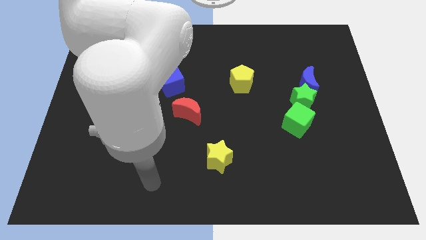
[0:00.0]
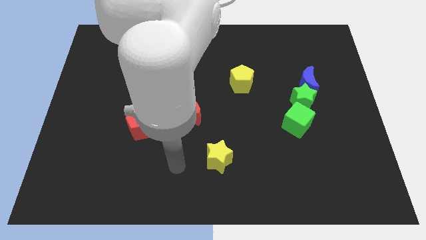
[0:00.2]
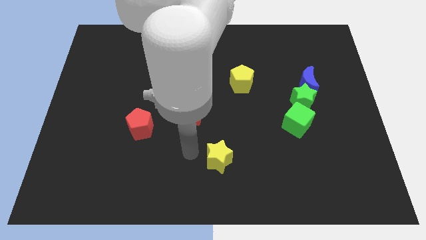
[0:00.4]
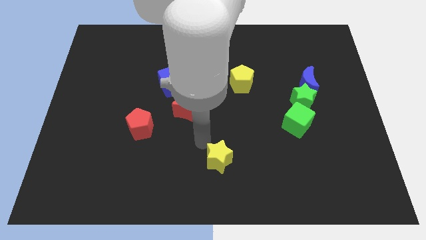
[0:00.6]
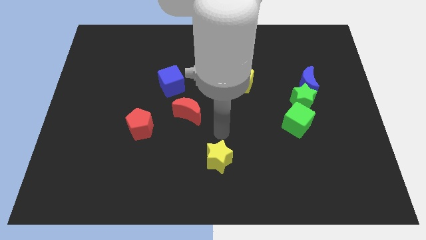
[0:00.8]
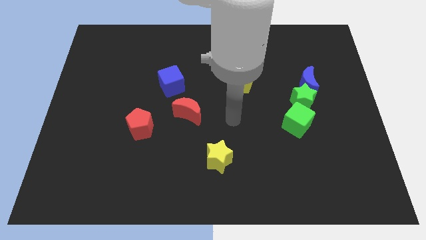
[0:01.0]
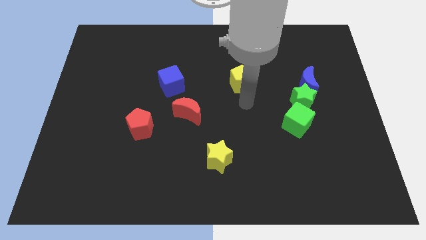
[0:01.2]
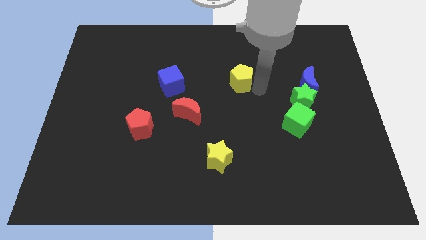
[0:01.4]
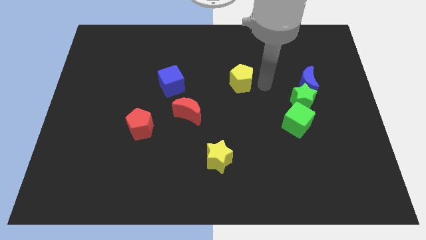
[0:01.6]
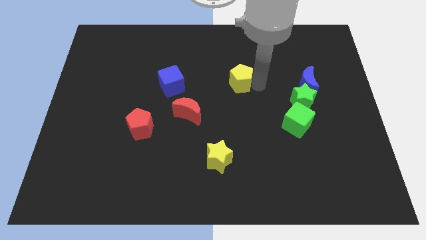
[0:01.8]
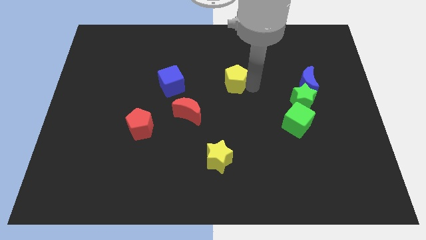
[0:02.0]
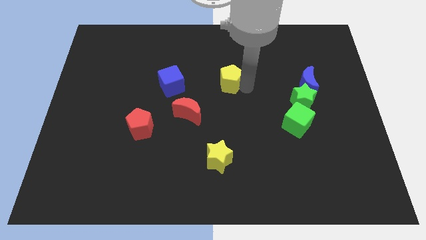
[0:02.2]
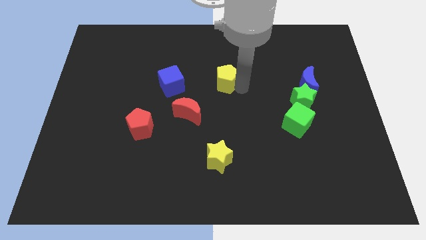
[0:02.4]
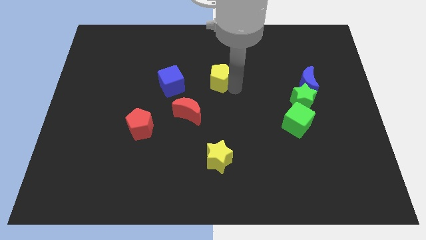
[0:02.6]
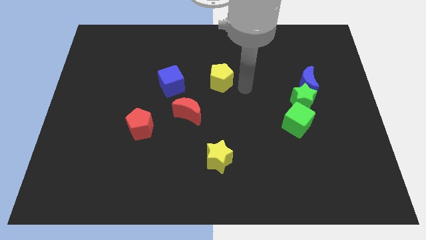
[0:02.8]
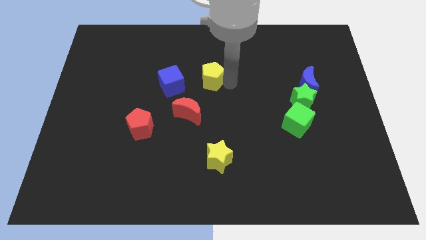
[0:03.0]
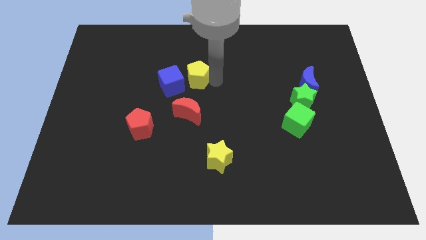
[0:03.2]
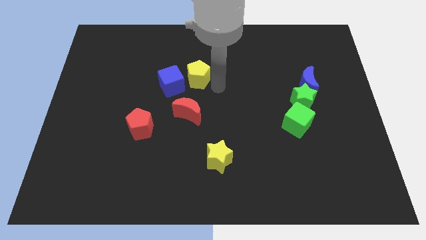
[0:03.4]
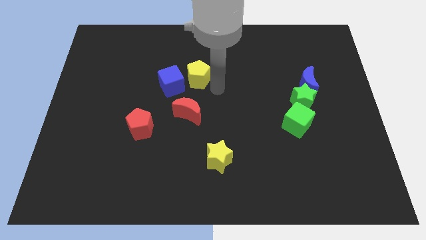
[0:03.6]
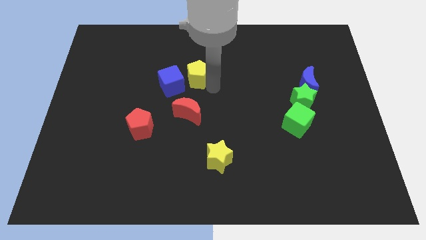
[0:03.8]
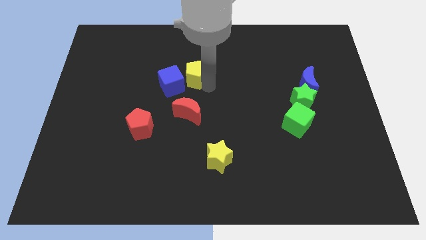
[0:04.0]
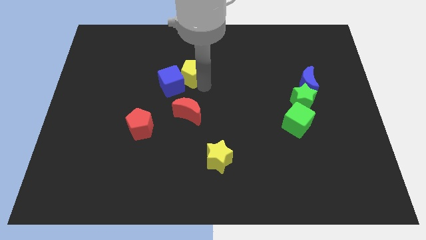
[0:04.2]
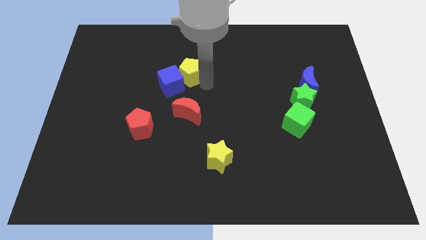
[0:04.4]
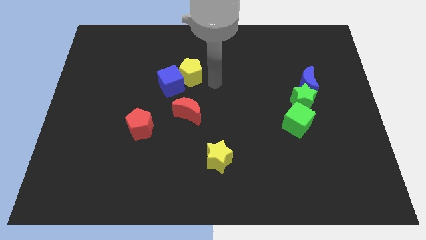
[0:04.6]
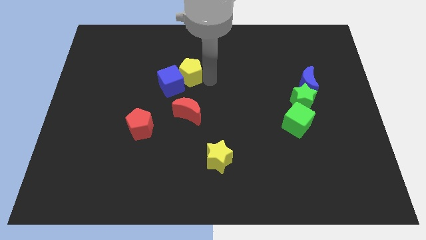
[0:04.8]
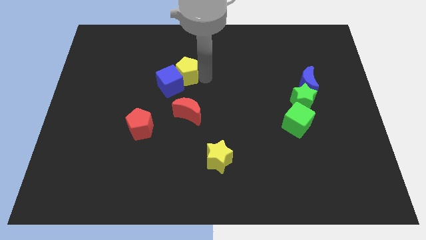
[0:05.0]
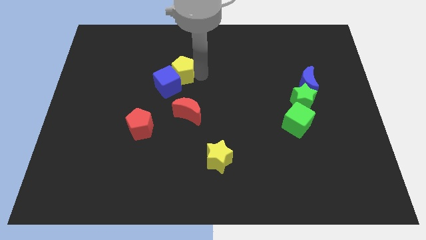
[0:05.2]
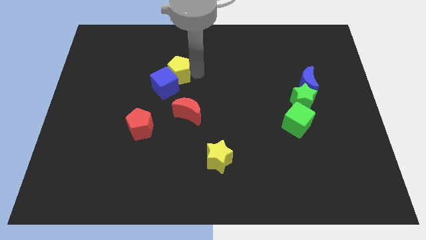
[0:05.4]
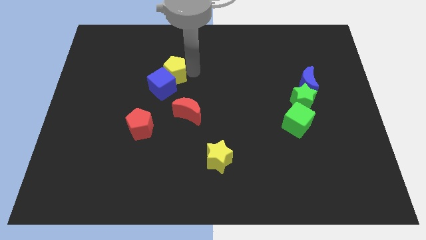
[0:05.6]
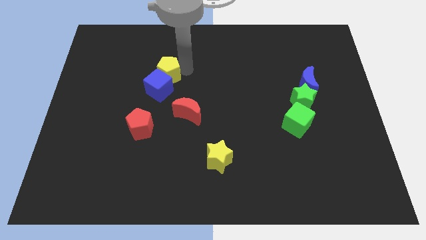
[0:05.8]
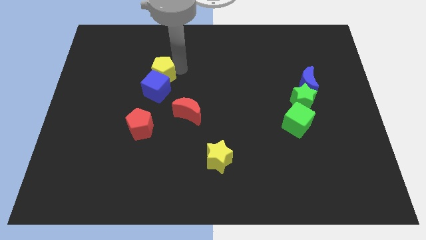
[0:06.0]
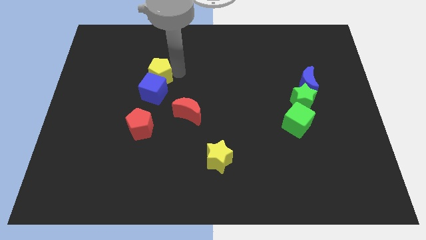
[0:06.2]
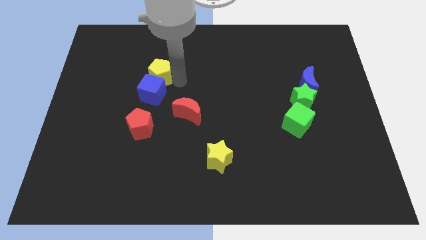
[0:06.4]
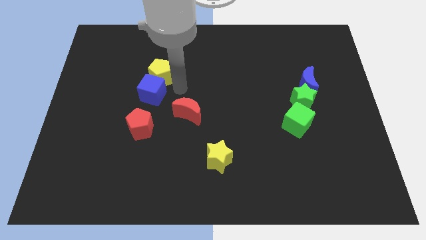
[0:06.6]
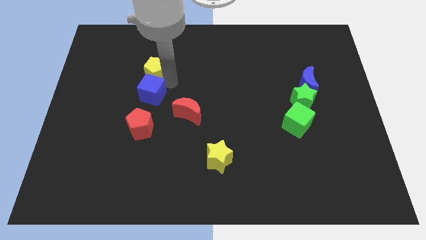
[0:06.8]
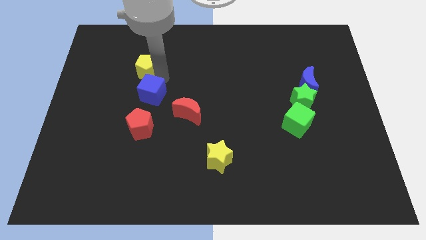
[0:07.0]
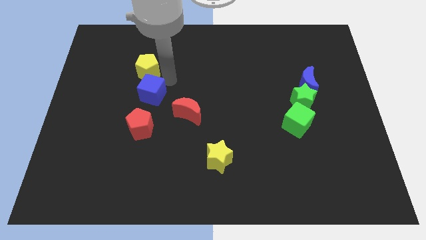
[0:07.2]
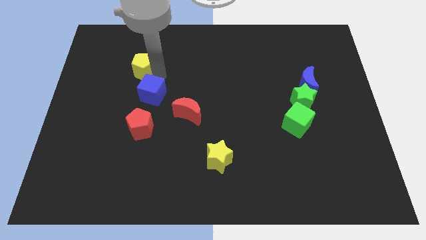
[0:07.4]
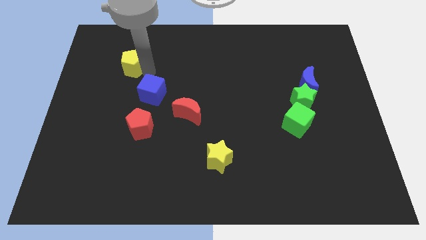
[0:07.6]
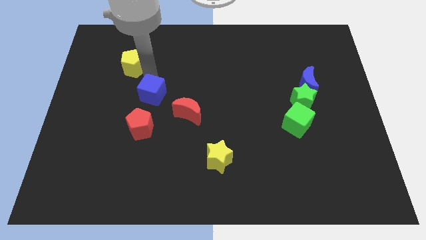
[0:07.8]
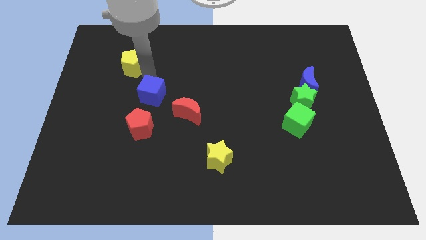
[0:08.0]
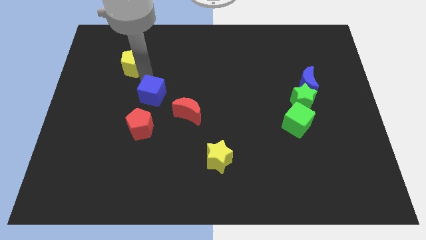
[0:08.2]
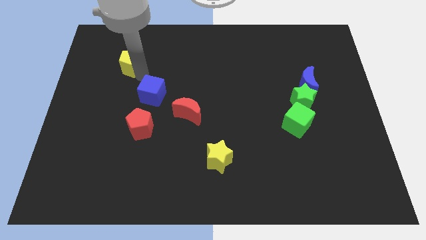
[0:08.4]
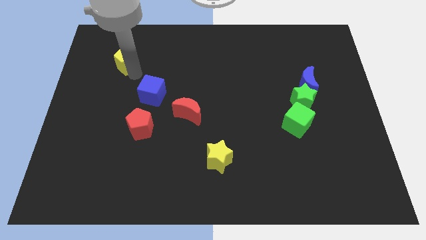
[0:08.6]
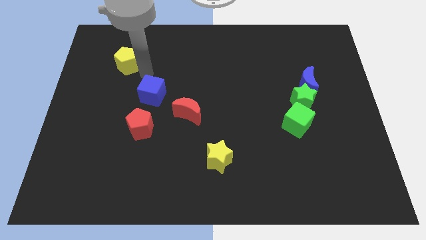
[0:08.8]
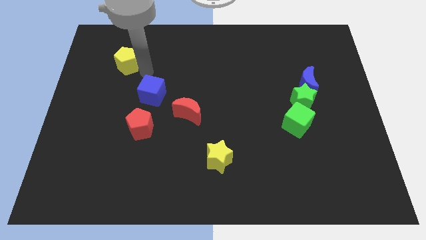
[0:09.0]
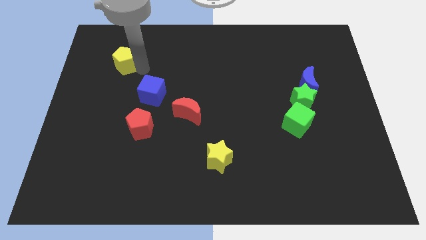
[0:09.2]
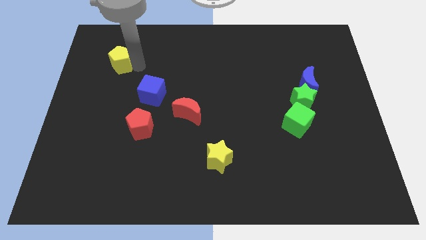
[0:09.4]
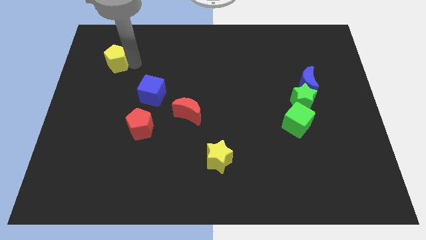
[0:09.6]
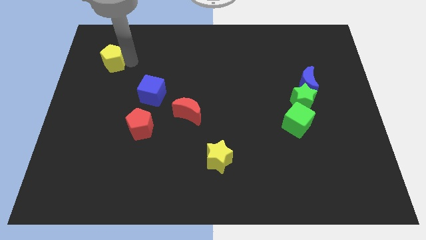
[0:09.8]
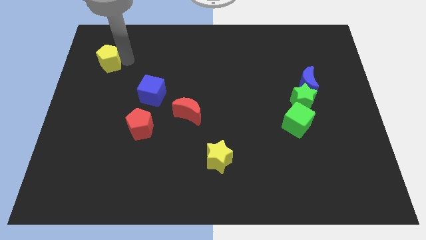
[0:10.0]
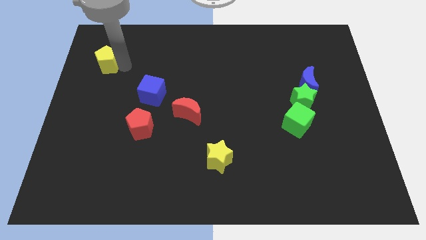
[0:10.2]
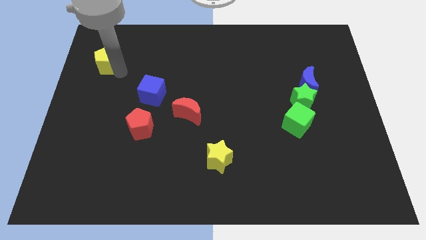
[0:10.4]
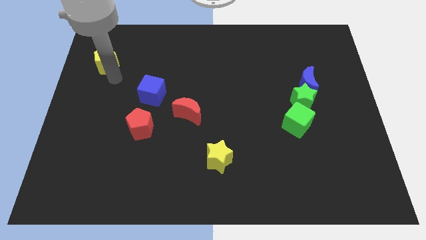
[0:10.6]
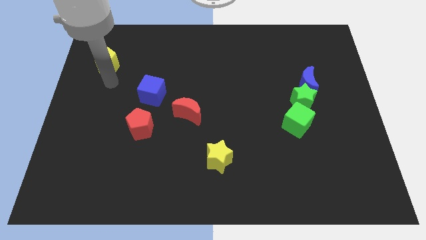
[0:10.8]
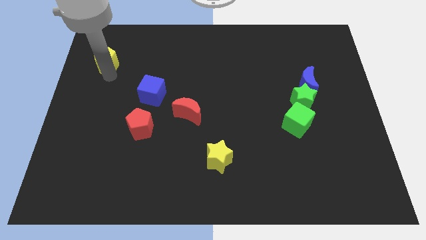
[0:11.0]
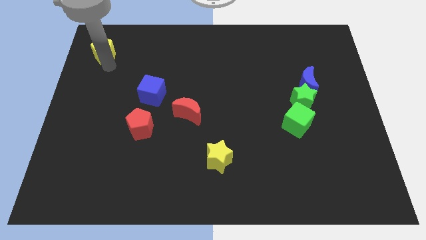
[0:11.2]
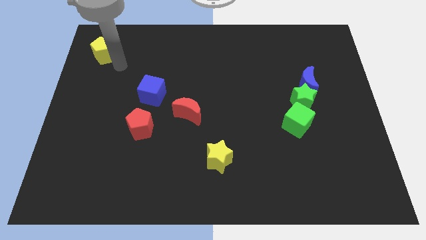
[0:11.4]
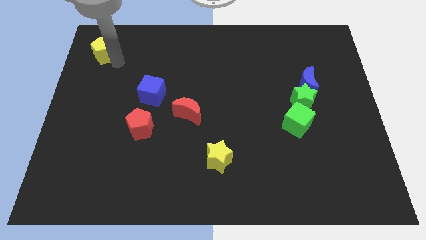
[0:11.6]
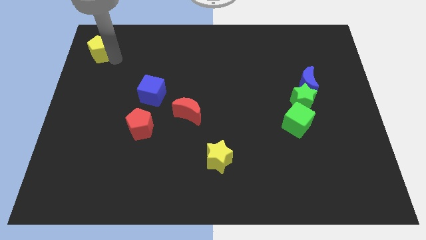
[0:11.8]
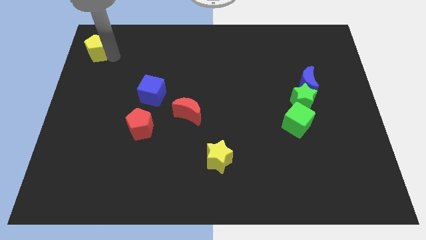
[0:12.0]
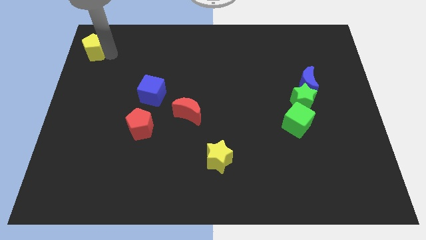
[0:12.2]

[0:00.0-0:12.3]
move the yellow pentagon to the upper left corner
